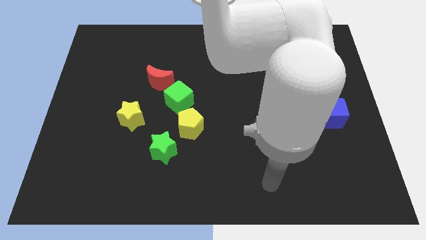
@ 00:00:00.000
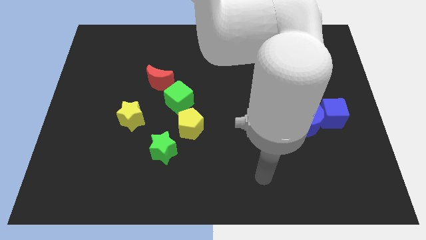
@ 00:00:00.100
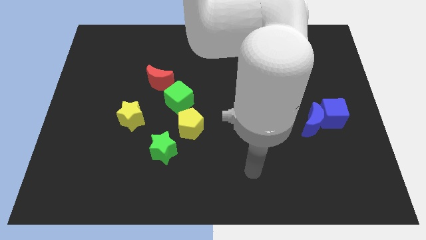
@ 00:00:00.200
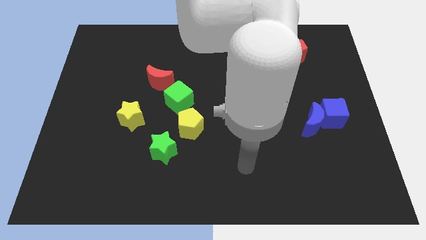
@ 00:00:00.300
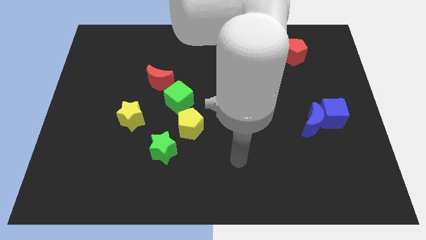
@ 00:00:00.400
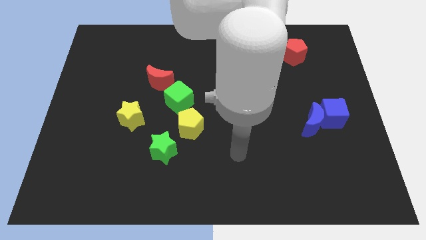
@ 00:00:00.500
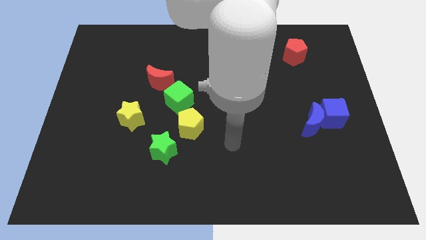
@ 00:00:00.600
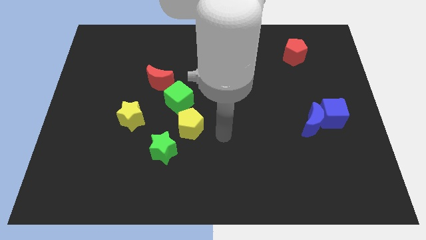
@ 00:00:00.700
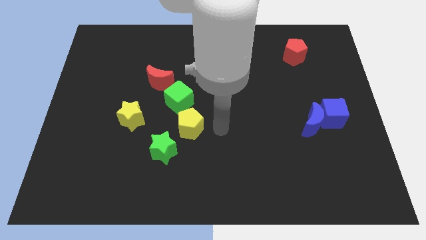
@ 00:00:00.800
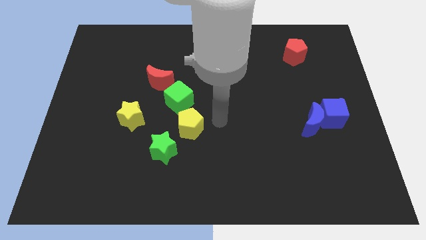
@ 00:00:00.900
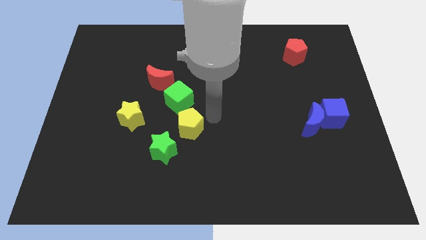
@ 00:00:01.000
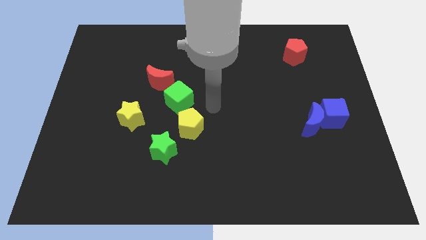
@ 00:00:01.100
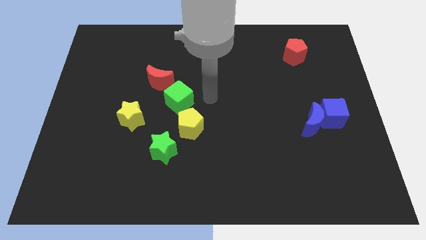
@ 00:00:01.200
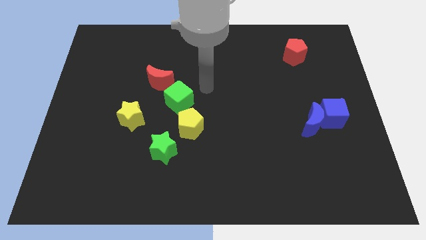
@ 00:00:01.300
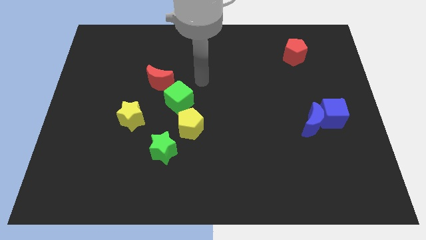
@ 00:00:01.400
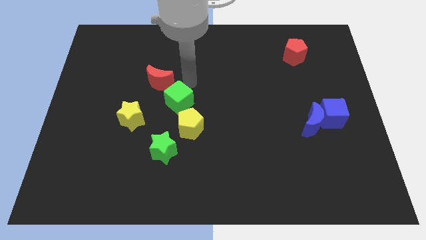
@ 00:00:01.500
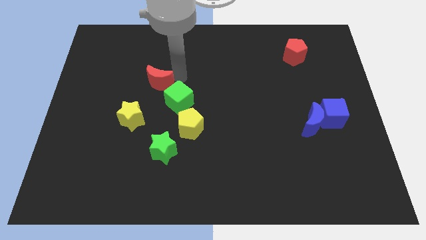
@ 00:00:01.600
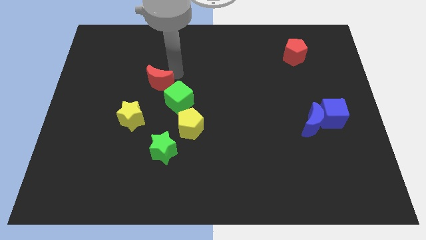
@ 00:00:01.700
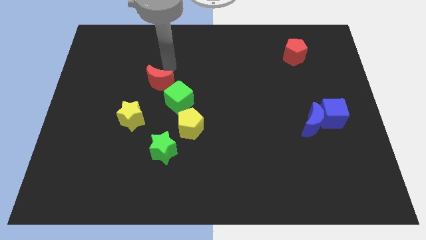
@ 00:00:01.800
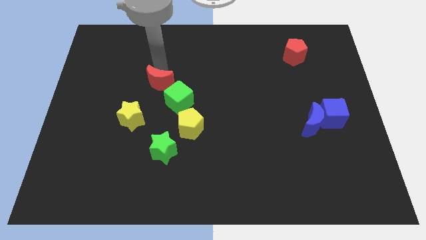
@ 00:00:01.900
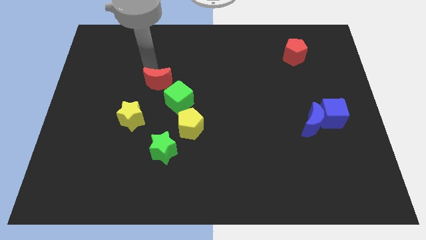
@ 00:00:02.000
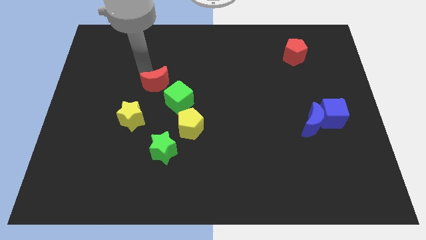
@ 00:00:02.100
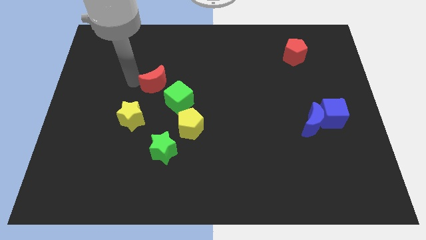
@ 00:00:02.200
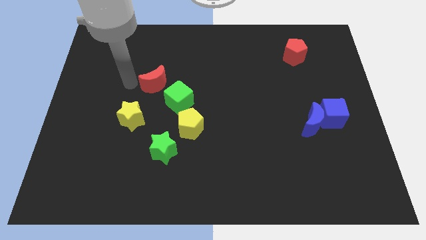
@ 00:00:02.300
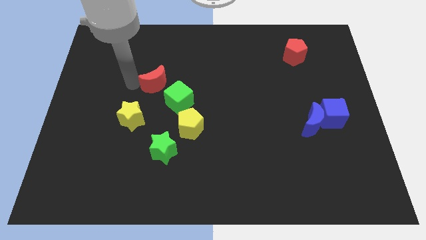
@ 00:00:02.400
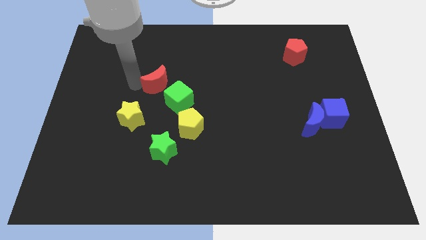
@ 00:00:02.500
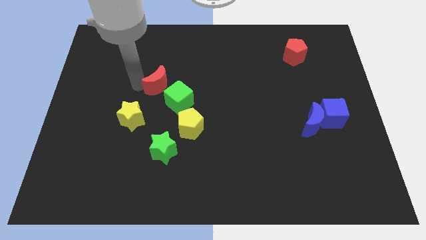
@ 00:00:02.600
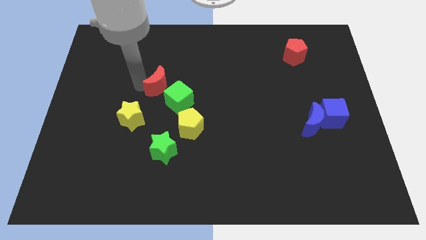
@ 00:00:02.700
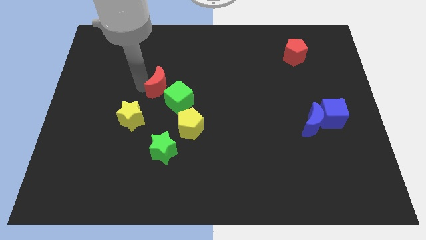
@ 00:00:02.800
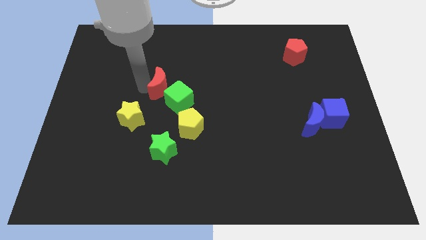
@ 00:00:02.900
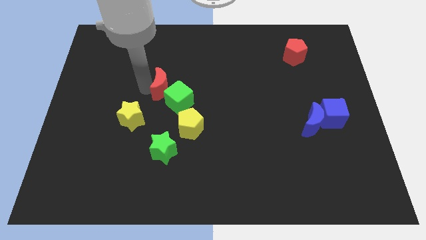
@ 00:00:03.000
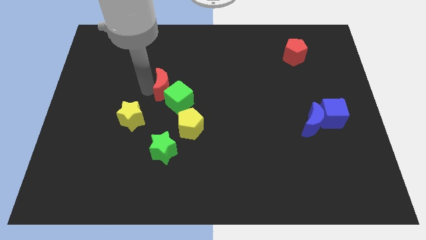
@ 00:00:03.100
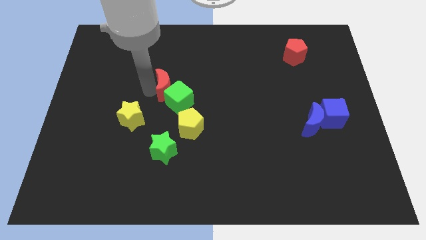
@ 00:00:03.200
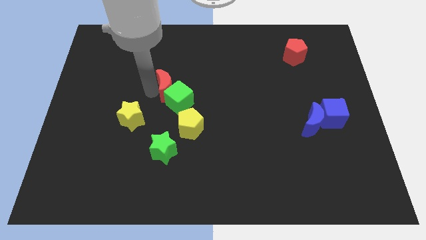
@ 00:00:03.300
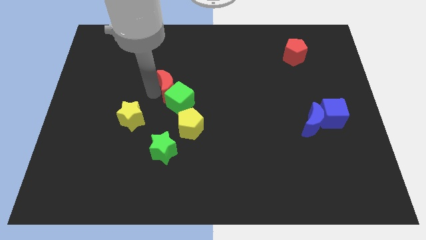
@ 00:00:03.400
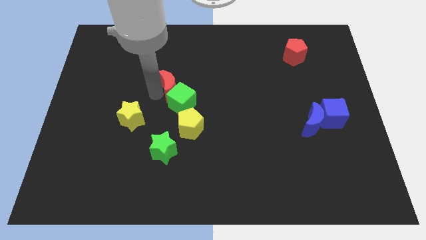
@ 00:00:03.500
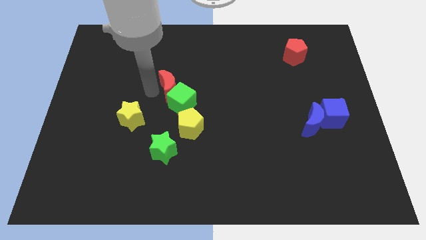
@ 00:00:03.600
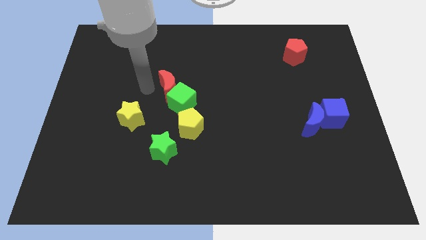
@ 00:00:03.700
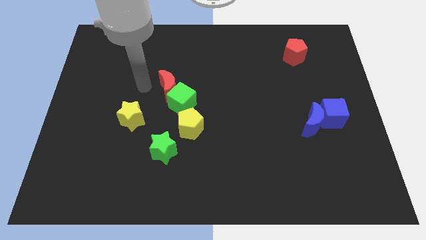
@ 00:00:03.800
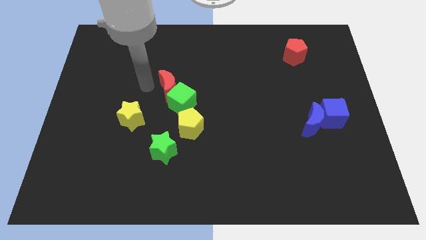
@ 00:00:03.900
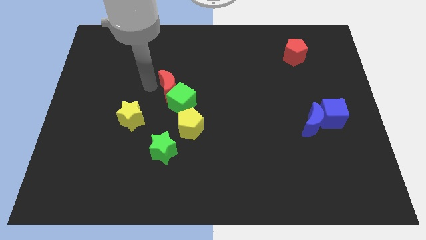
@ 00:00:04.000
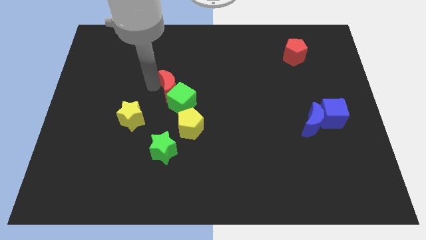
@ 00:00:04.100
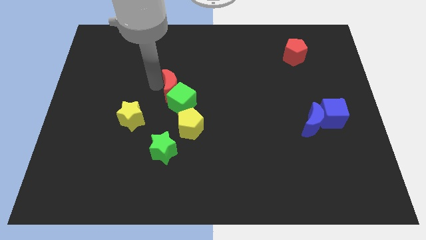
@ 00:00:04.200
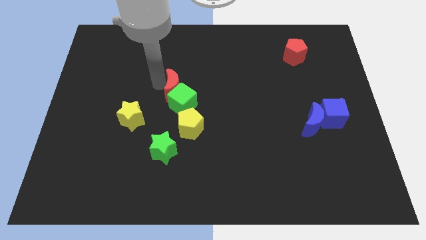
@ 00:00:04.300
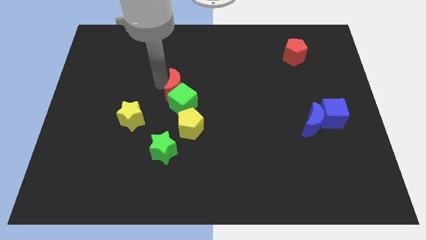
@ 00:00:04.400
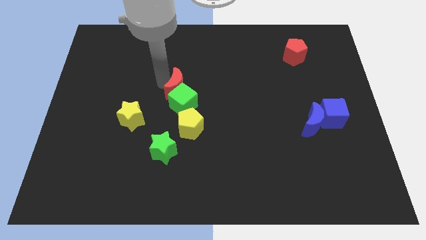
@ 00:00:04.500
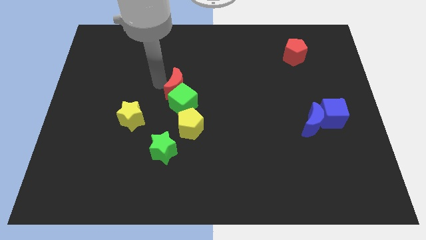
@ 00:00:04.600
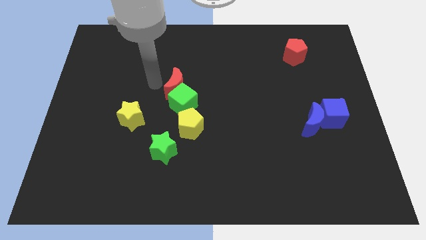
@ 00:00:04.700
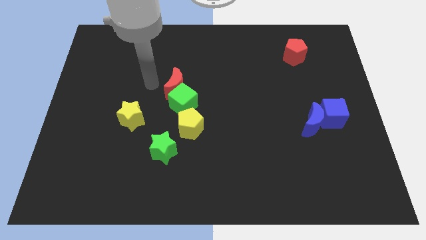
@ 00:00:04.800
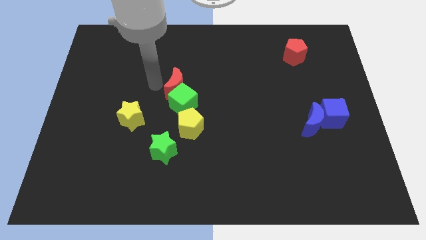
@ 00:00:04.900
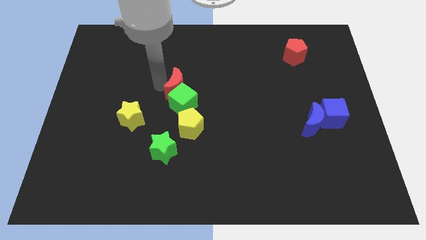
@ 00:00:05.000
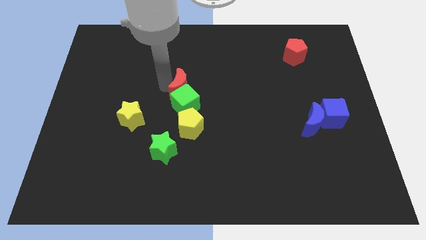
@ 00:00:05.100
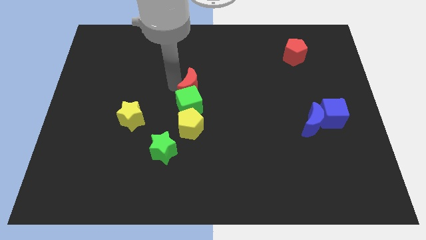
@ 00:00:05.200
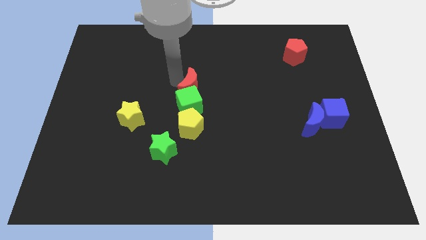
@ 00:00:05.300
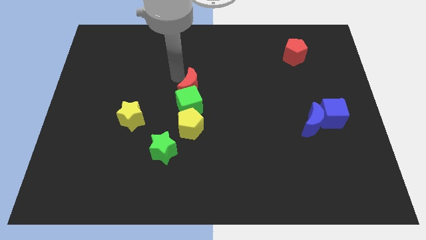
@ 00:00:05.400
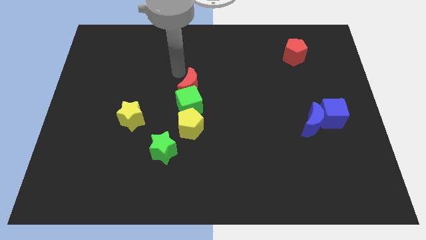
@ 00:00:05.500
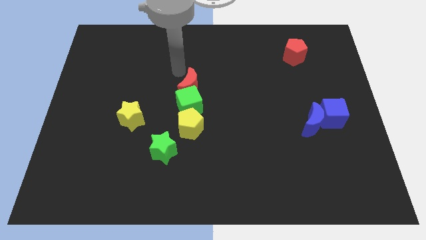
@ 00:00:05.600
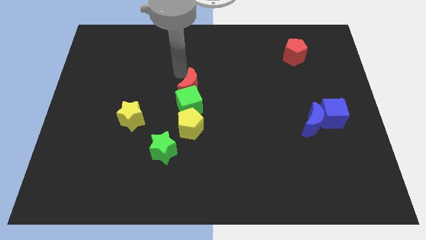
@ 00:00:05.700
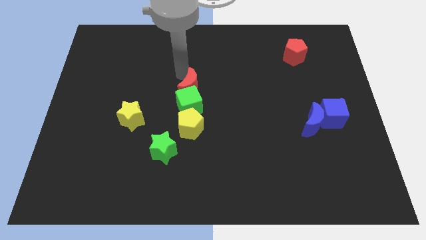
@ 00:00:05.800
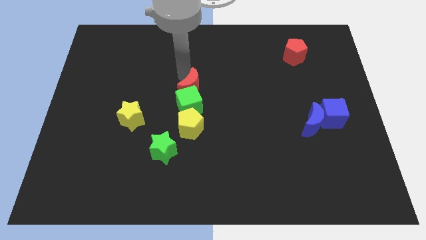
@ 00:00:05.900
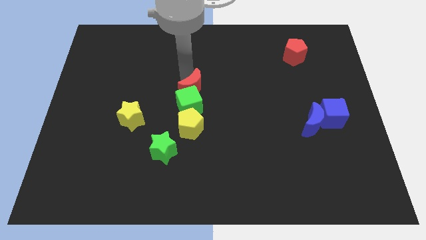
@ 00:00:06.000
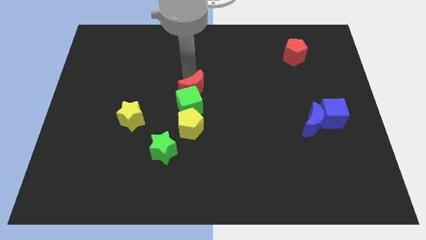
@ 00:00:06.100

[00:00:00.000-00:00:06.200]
slide the red moon diagonally downwards and right a little

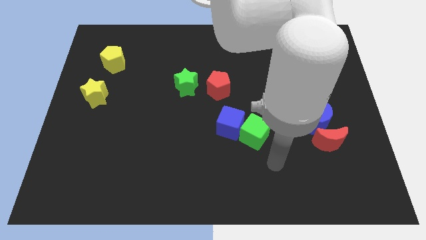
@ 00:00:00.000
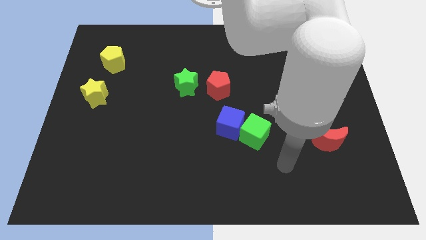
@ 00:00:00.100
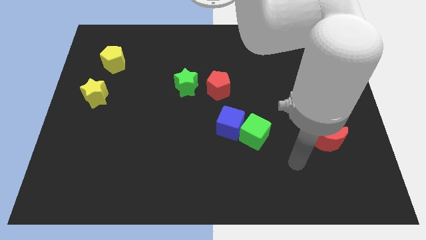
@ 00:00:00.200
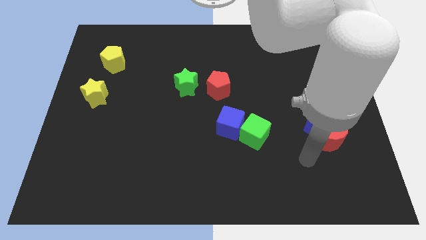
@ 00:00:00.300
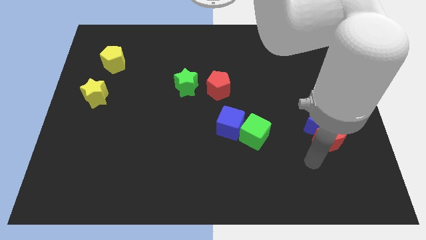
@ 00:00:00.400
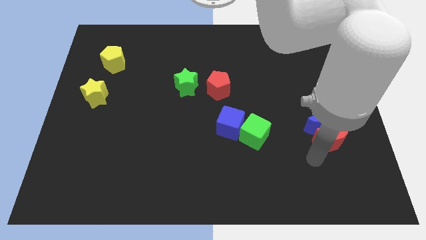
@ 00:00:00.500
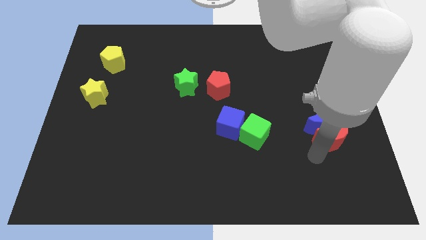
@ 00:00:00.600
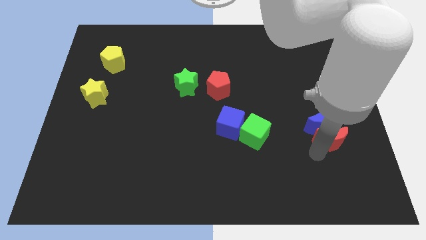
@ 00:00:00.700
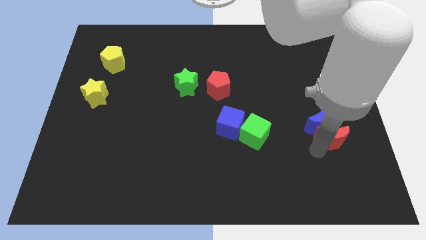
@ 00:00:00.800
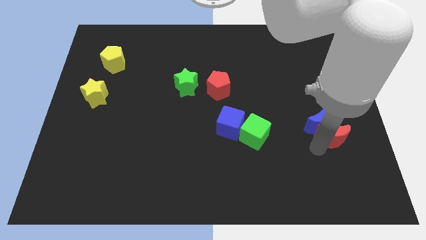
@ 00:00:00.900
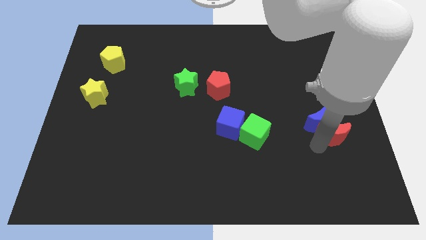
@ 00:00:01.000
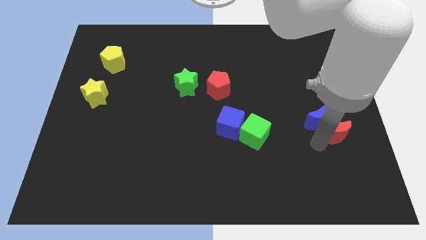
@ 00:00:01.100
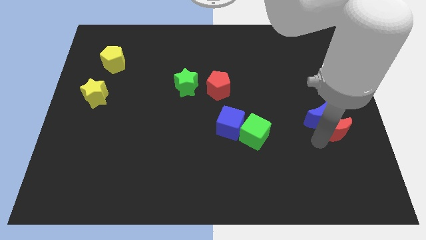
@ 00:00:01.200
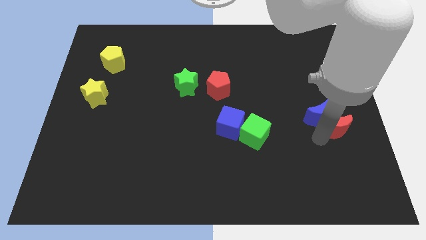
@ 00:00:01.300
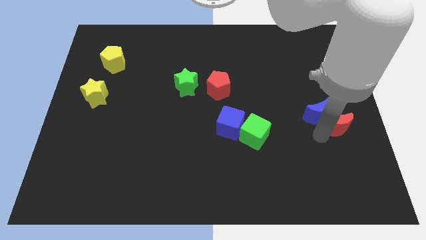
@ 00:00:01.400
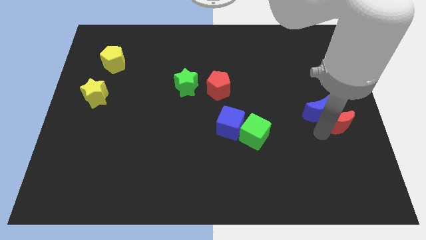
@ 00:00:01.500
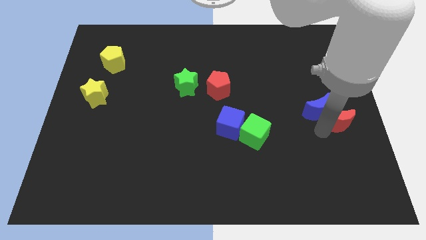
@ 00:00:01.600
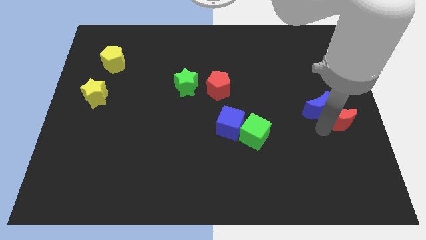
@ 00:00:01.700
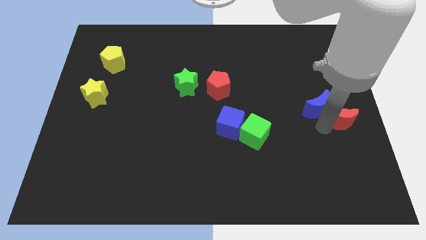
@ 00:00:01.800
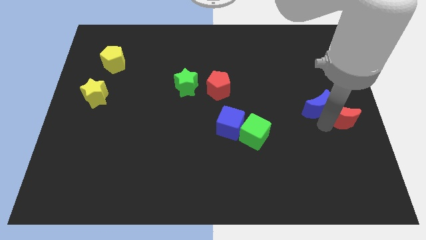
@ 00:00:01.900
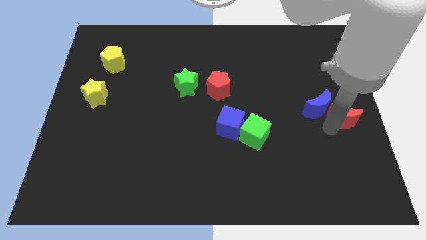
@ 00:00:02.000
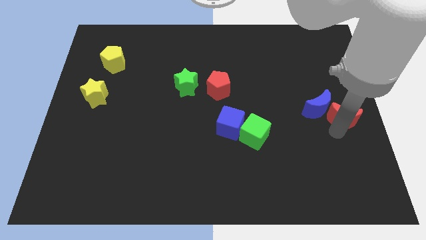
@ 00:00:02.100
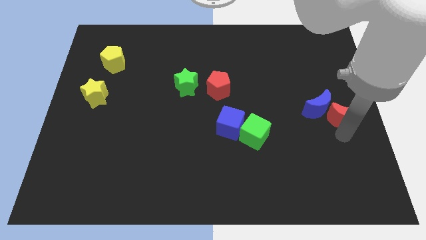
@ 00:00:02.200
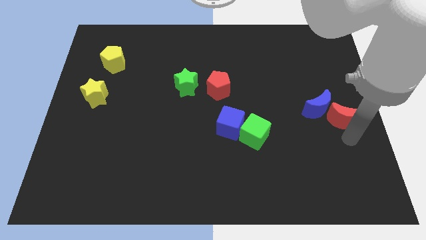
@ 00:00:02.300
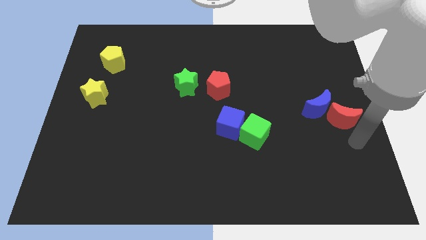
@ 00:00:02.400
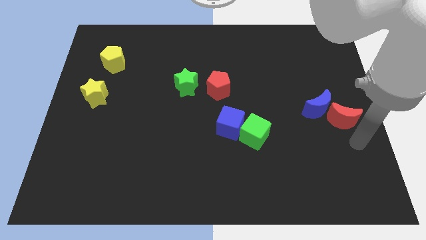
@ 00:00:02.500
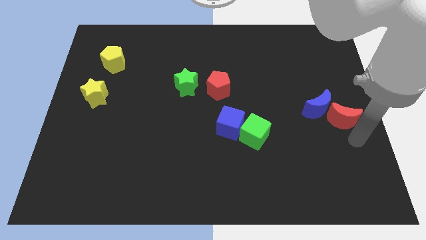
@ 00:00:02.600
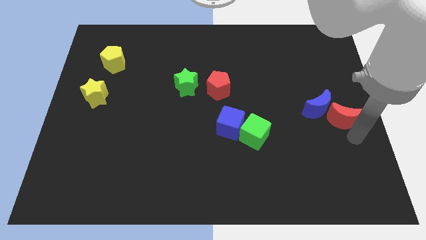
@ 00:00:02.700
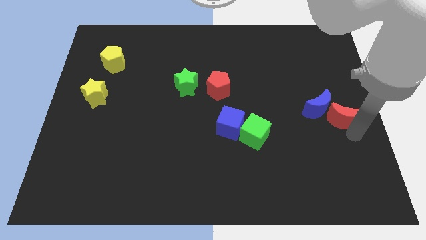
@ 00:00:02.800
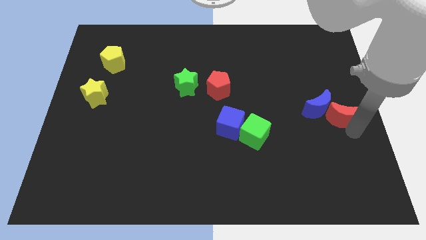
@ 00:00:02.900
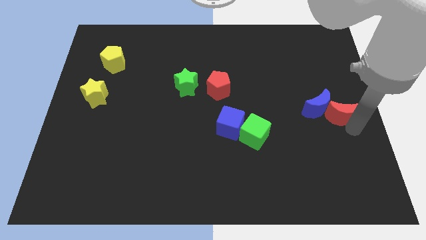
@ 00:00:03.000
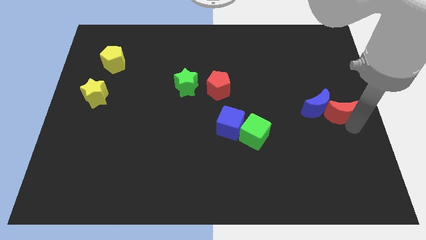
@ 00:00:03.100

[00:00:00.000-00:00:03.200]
slightly push the red moon upwards
